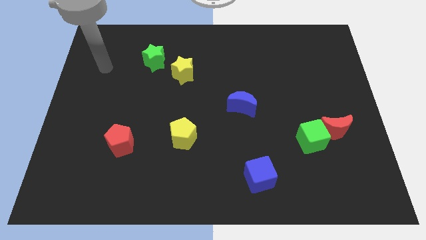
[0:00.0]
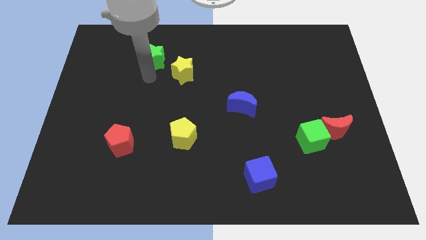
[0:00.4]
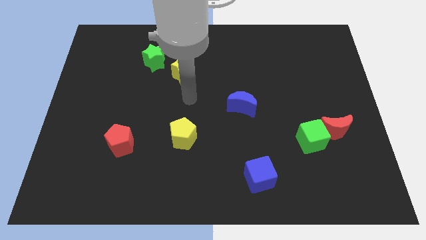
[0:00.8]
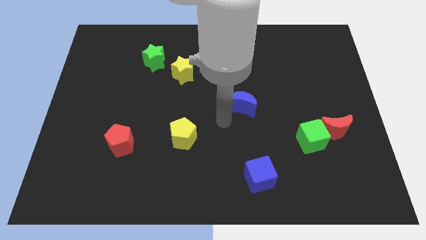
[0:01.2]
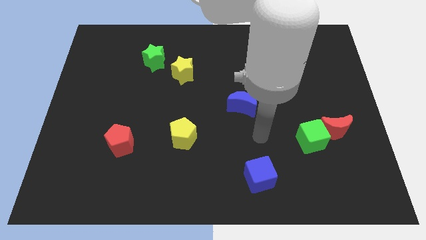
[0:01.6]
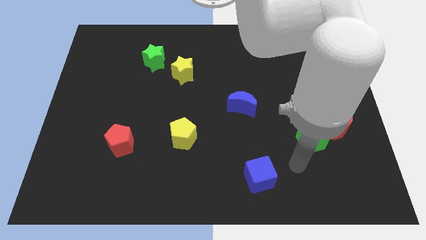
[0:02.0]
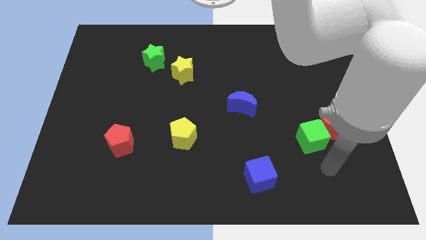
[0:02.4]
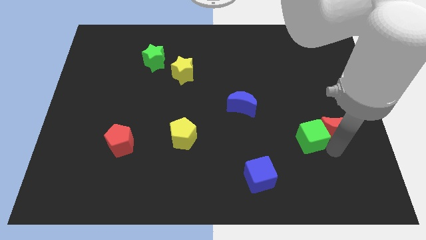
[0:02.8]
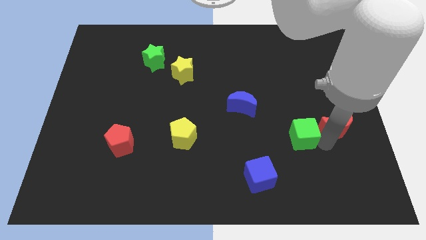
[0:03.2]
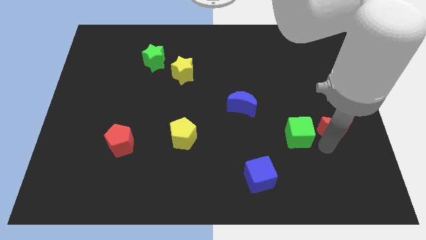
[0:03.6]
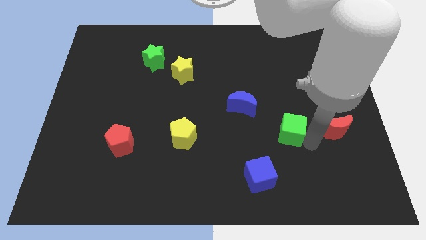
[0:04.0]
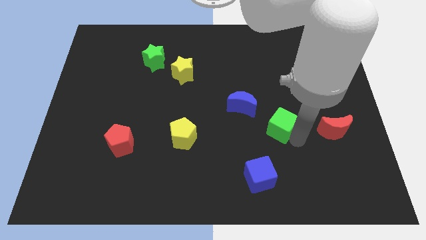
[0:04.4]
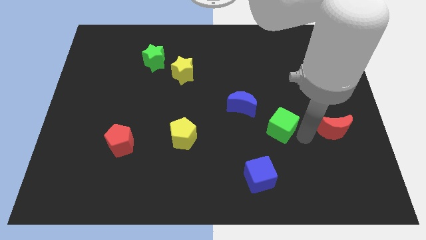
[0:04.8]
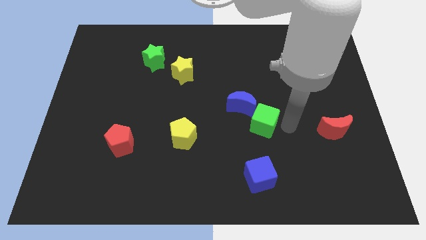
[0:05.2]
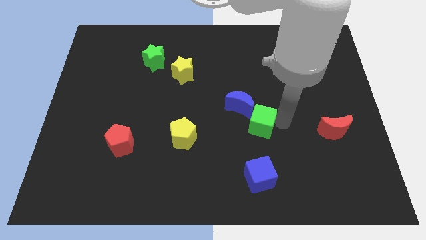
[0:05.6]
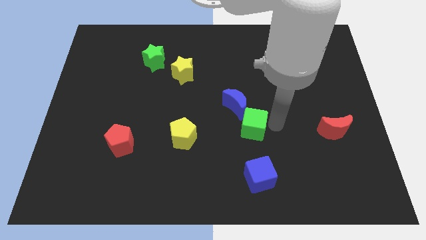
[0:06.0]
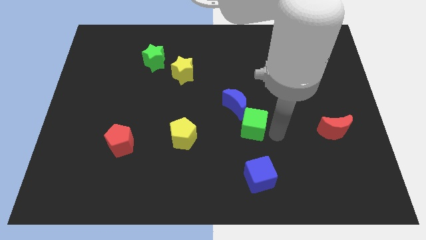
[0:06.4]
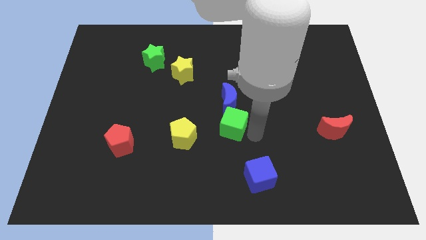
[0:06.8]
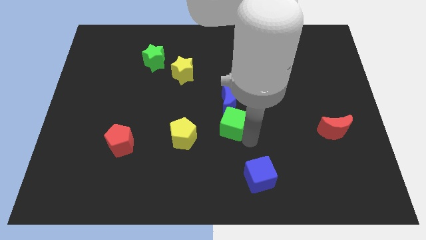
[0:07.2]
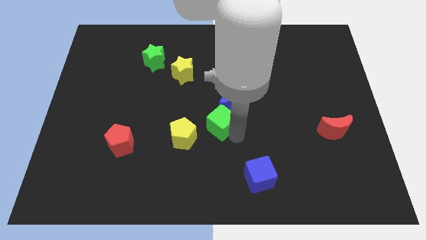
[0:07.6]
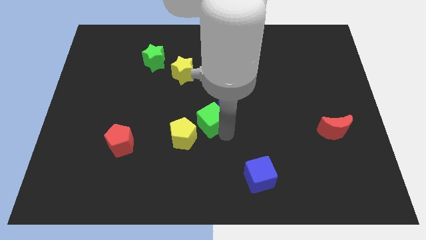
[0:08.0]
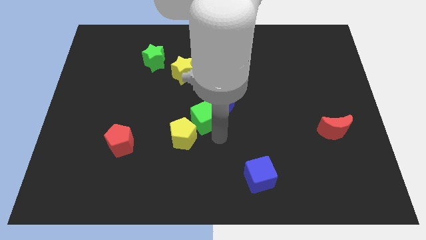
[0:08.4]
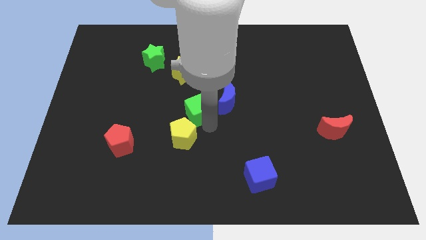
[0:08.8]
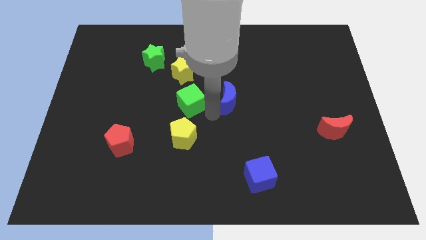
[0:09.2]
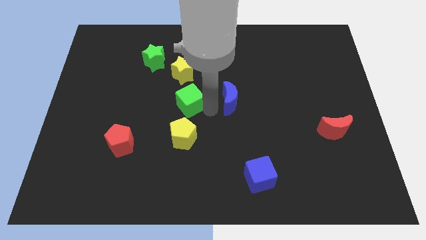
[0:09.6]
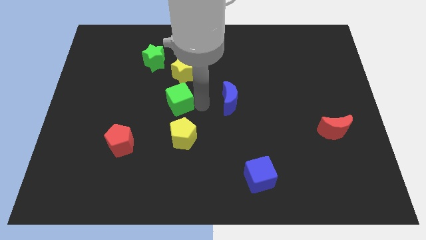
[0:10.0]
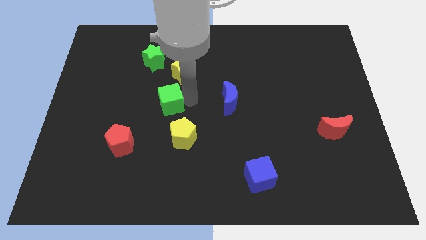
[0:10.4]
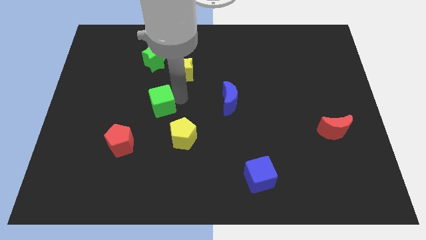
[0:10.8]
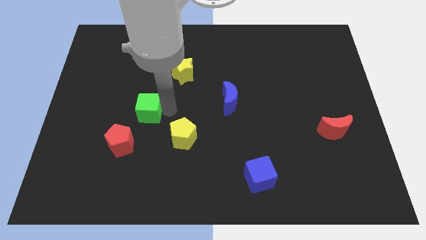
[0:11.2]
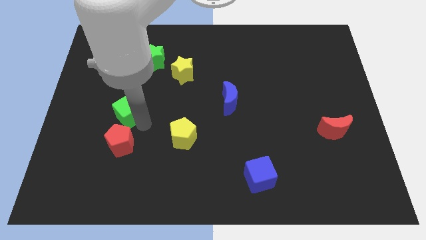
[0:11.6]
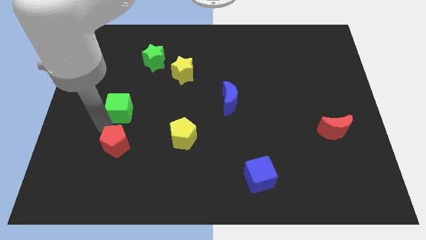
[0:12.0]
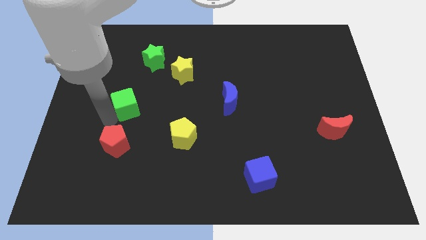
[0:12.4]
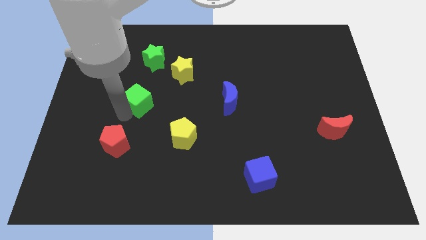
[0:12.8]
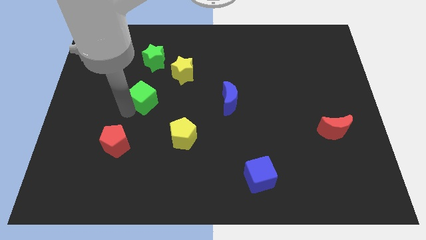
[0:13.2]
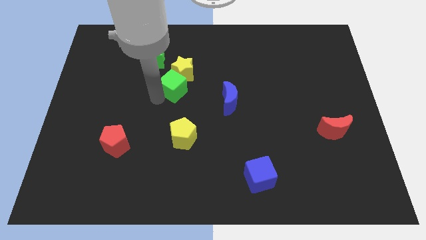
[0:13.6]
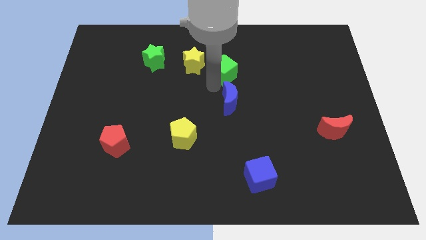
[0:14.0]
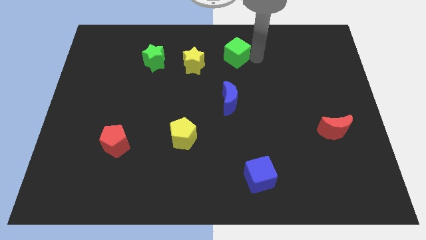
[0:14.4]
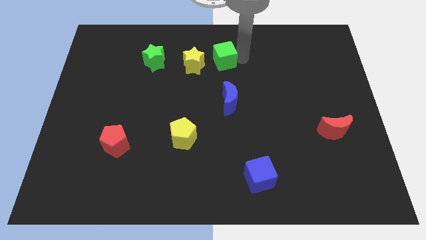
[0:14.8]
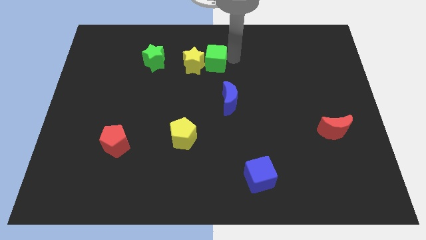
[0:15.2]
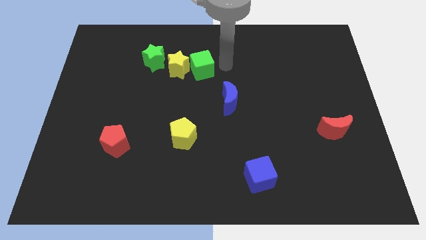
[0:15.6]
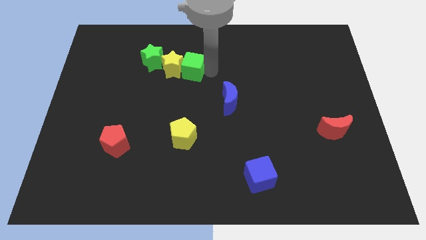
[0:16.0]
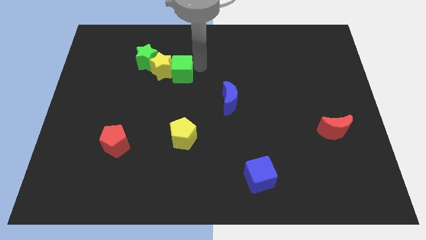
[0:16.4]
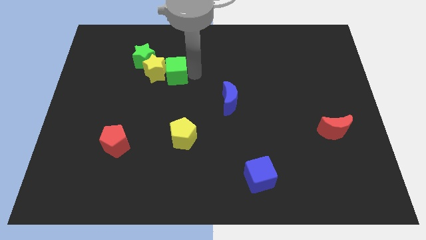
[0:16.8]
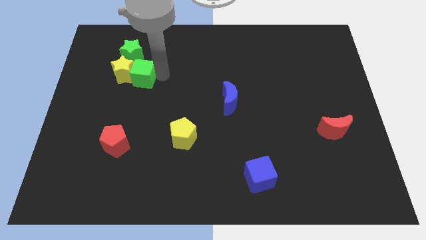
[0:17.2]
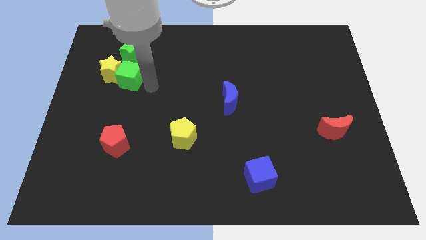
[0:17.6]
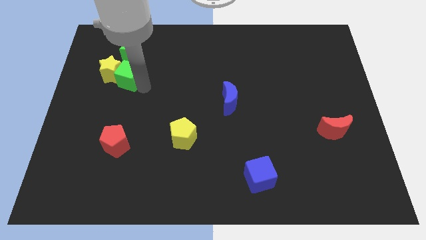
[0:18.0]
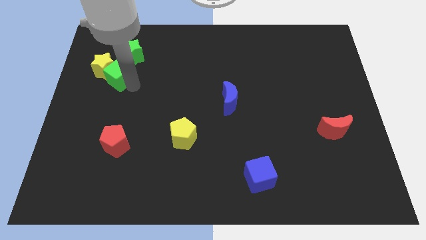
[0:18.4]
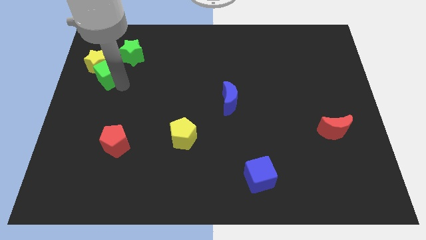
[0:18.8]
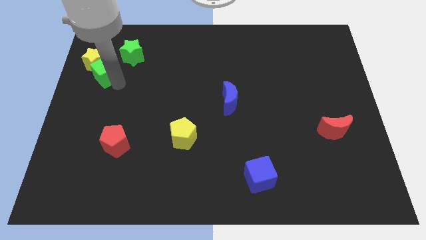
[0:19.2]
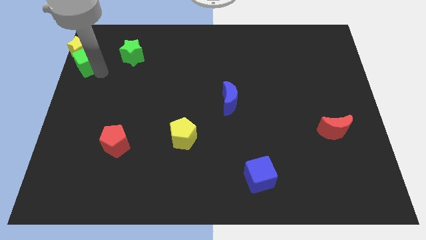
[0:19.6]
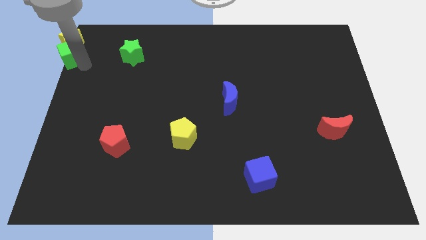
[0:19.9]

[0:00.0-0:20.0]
push the green cube to the top left corner
